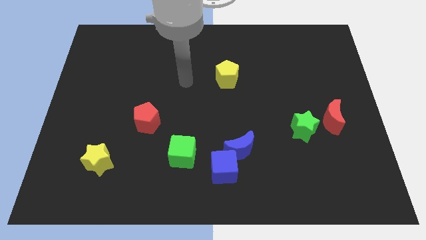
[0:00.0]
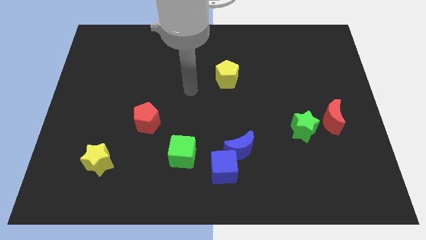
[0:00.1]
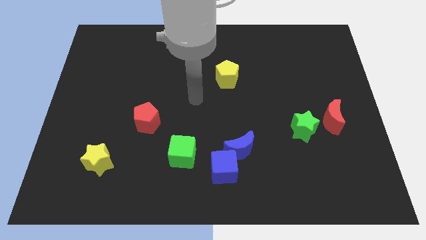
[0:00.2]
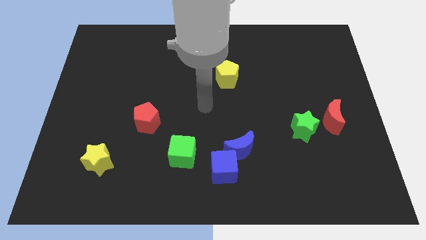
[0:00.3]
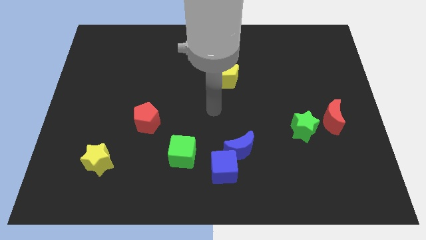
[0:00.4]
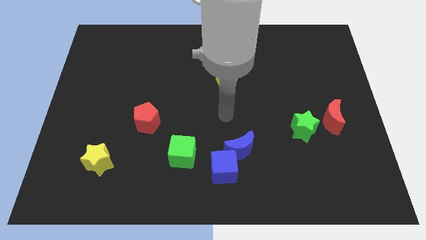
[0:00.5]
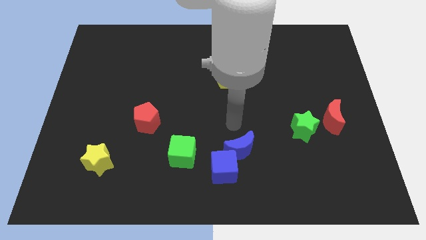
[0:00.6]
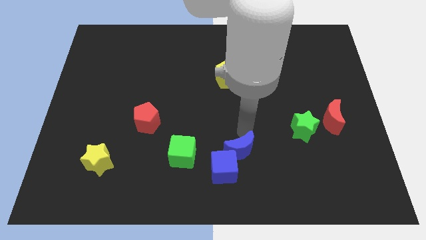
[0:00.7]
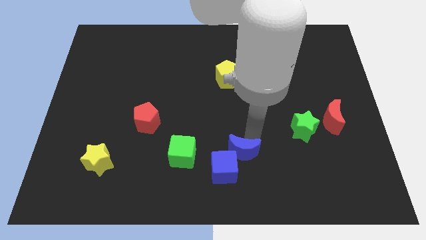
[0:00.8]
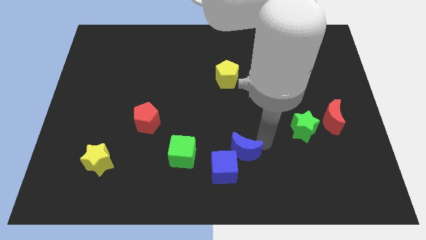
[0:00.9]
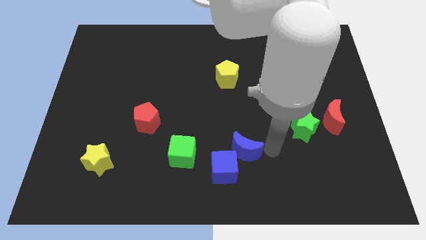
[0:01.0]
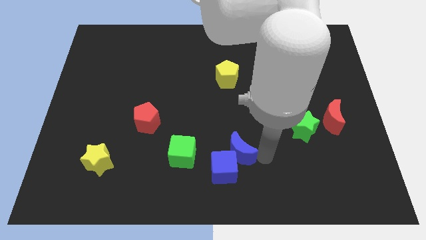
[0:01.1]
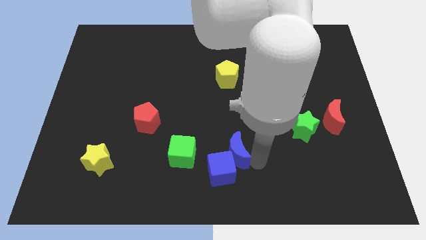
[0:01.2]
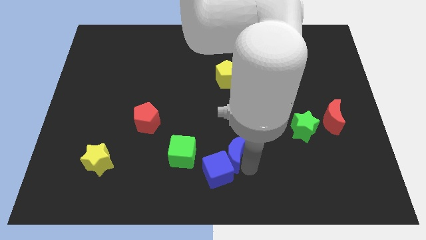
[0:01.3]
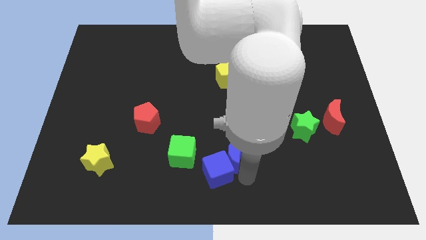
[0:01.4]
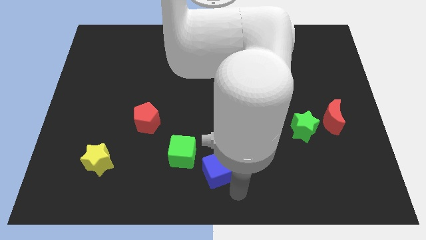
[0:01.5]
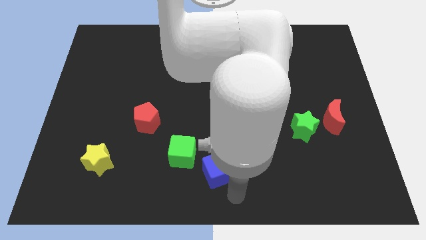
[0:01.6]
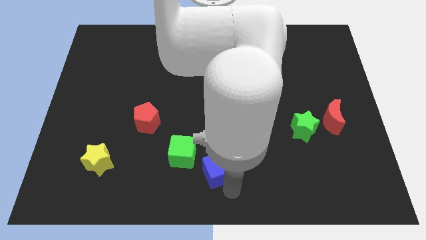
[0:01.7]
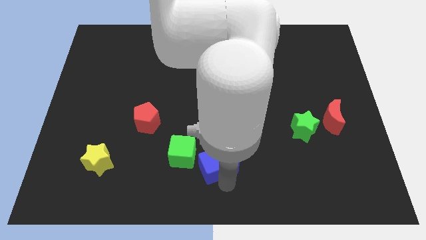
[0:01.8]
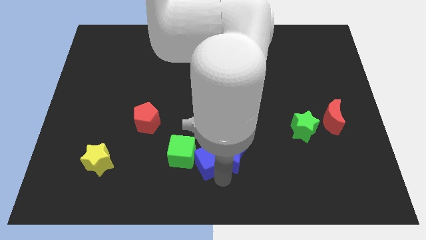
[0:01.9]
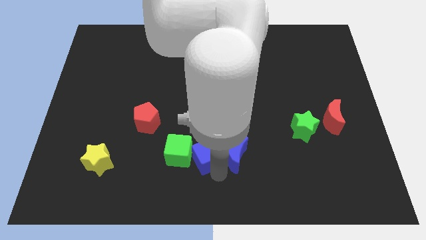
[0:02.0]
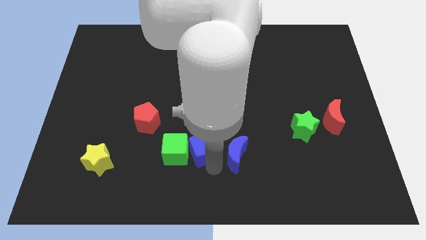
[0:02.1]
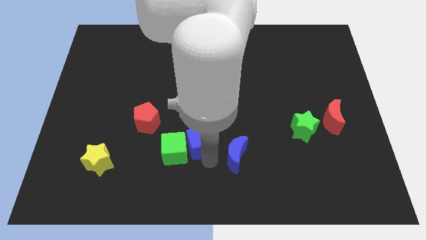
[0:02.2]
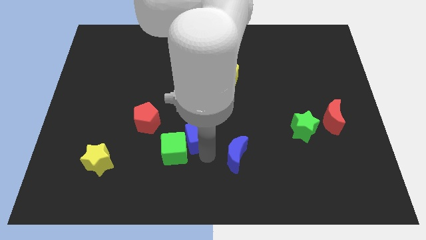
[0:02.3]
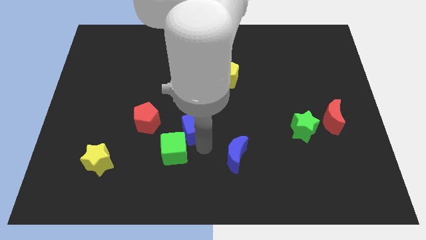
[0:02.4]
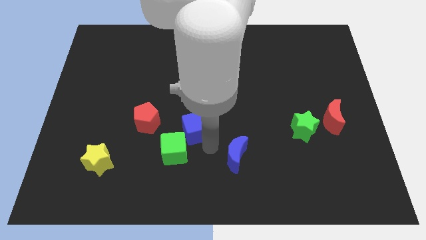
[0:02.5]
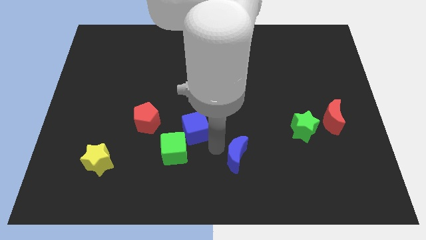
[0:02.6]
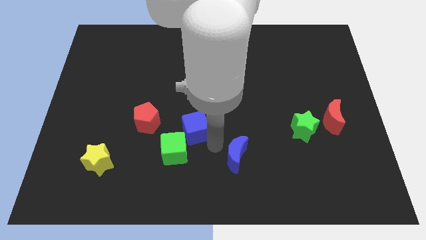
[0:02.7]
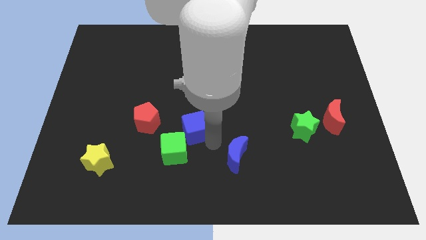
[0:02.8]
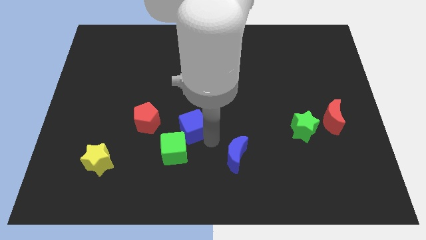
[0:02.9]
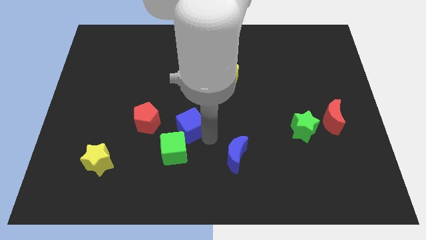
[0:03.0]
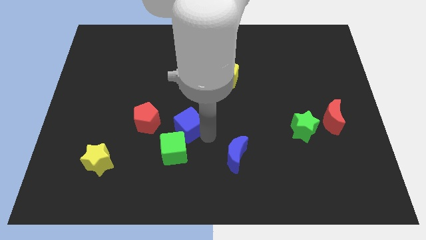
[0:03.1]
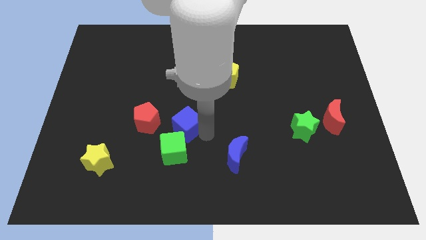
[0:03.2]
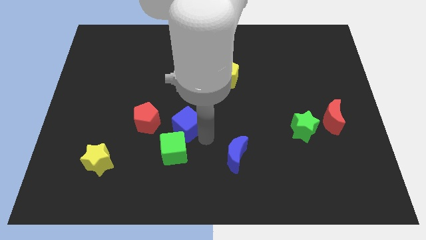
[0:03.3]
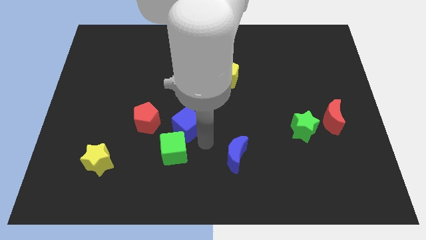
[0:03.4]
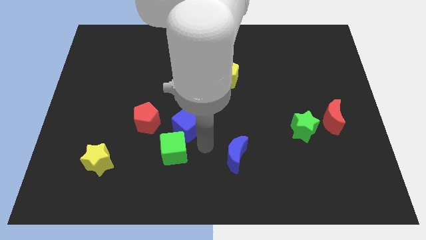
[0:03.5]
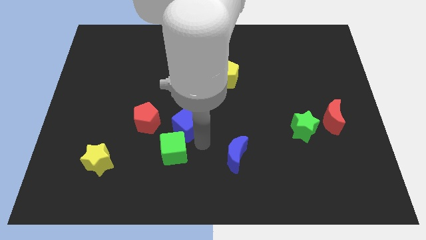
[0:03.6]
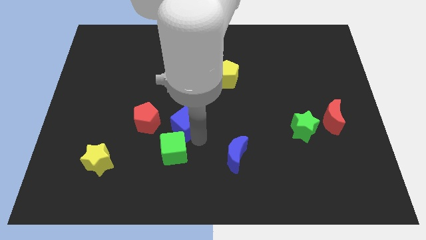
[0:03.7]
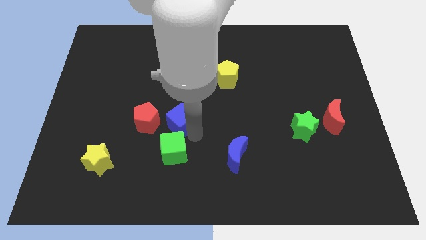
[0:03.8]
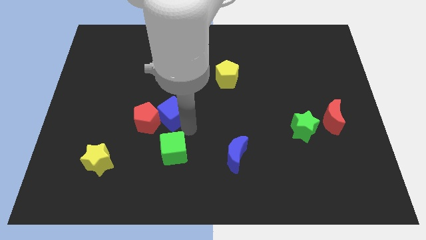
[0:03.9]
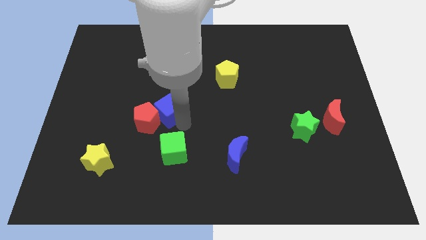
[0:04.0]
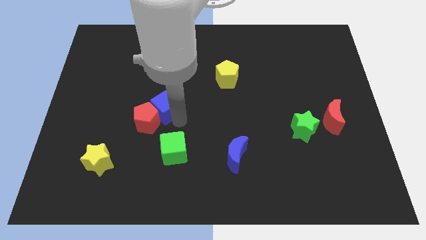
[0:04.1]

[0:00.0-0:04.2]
move the blue cube upwards and to the left diagonally

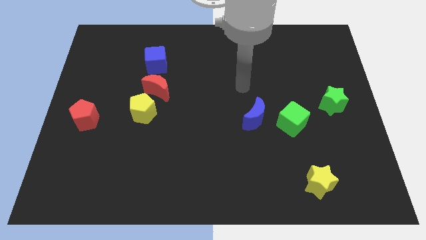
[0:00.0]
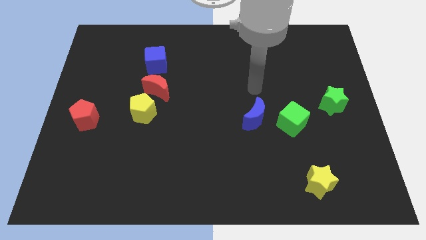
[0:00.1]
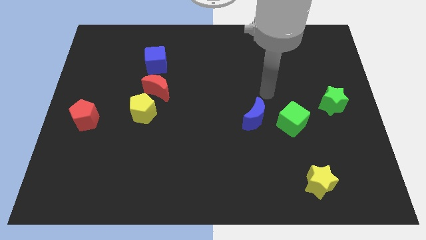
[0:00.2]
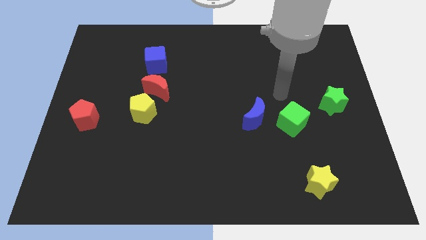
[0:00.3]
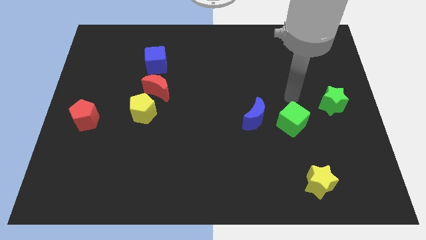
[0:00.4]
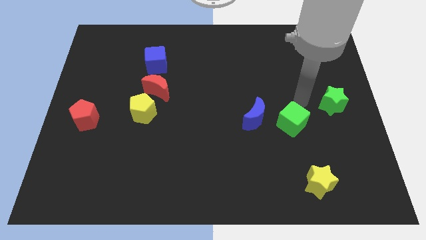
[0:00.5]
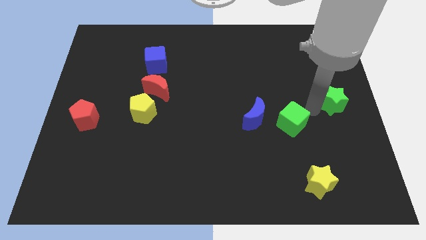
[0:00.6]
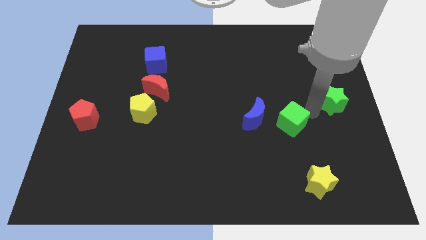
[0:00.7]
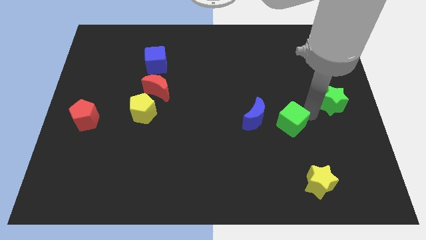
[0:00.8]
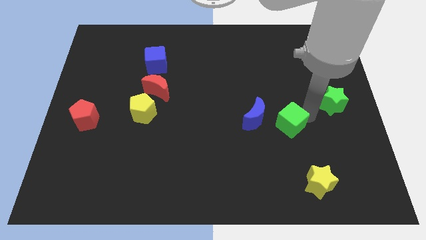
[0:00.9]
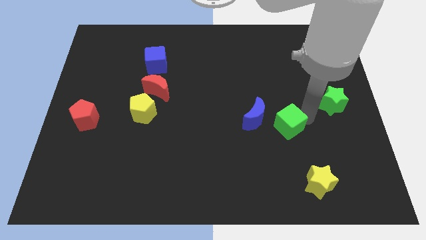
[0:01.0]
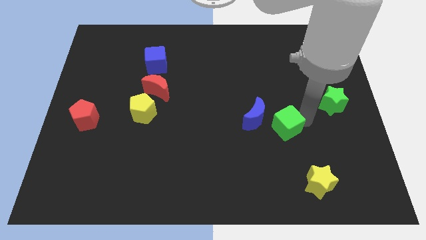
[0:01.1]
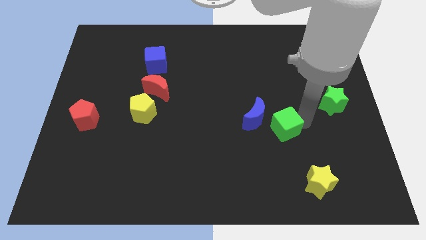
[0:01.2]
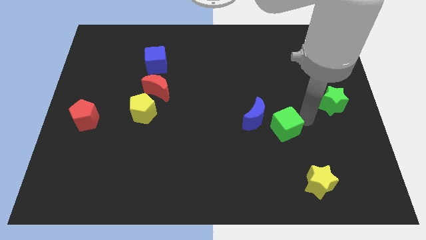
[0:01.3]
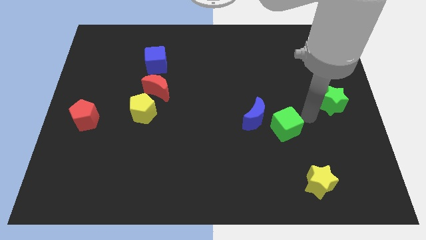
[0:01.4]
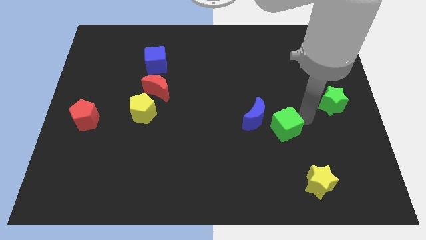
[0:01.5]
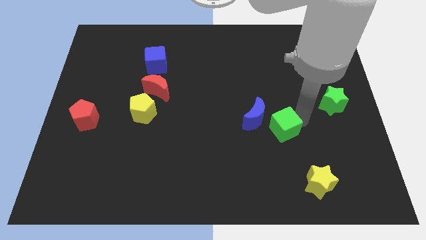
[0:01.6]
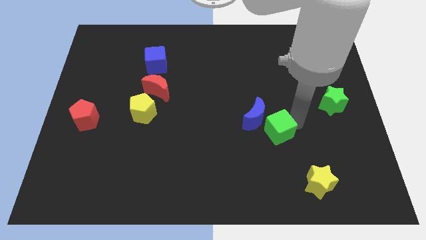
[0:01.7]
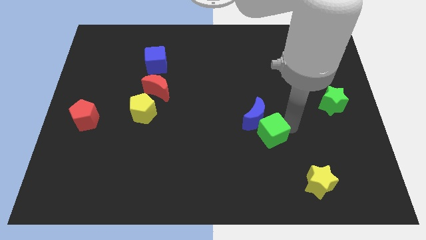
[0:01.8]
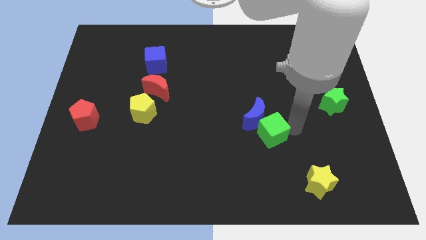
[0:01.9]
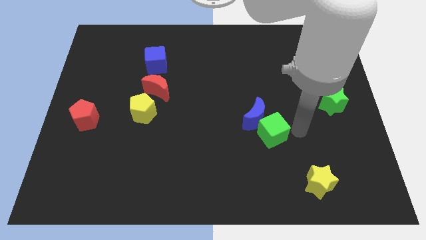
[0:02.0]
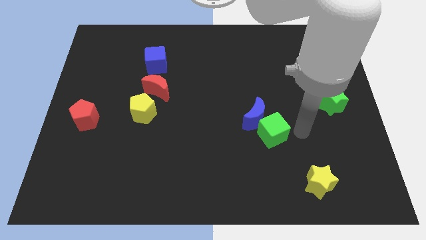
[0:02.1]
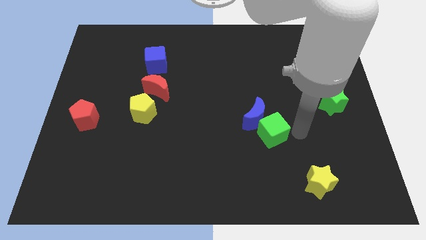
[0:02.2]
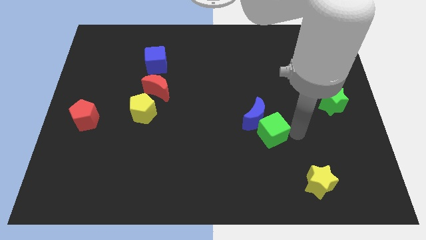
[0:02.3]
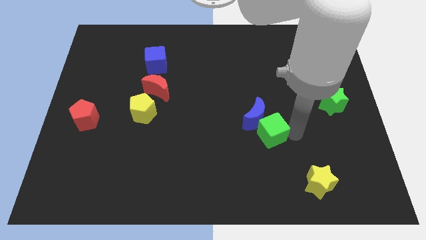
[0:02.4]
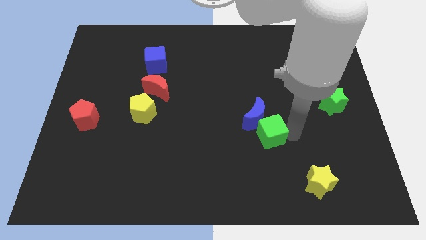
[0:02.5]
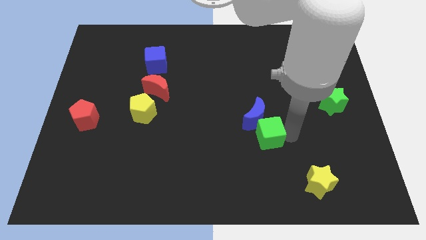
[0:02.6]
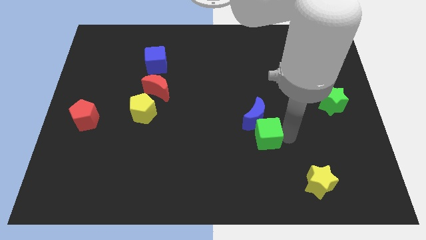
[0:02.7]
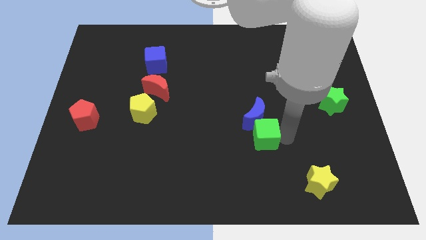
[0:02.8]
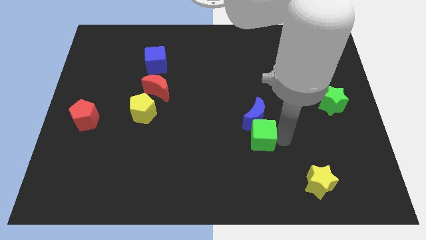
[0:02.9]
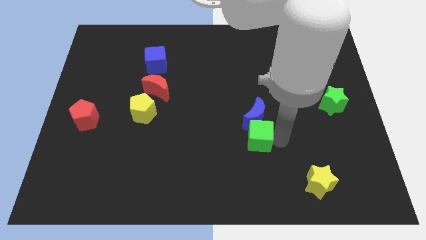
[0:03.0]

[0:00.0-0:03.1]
push the green cube a little bit left

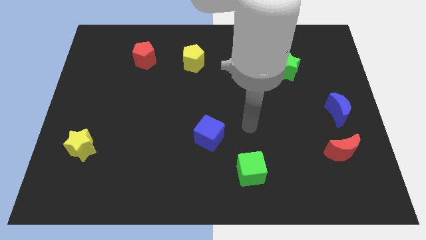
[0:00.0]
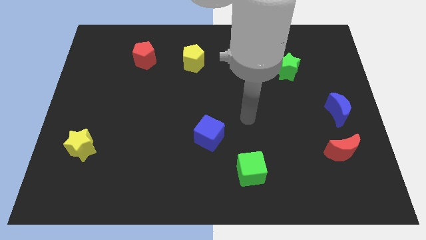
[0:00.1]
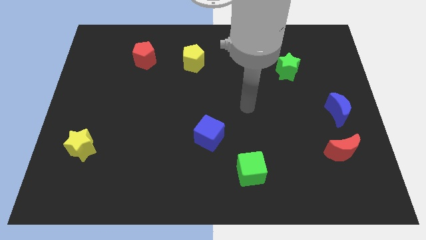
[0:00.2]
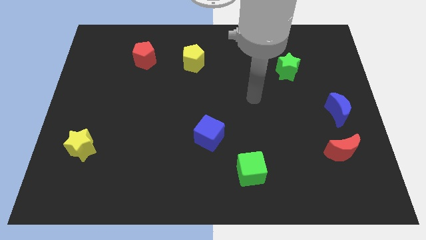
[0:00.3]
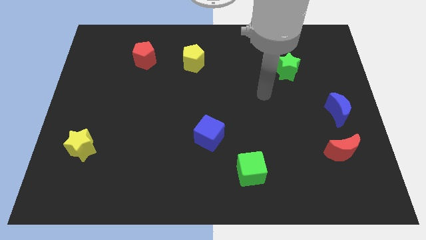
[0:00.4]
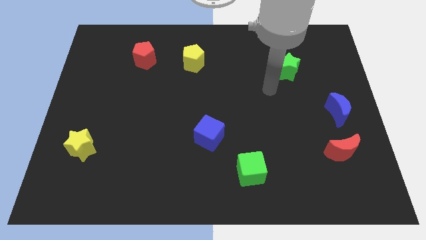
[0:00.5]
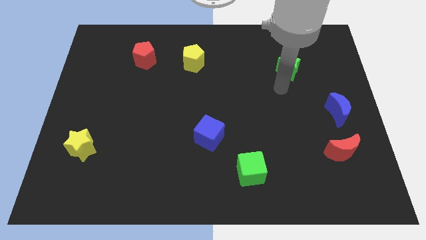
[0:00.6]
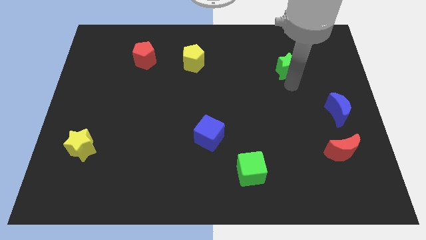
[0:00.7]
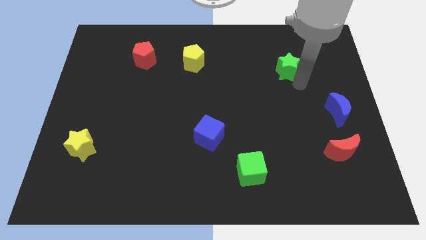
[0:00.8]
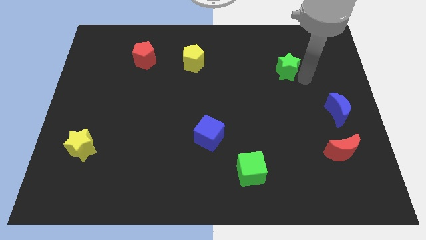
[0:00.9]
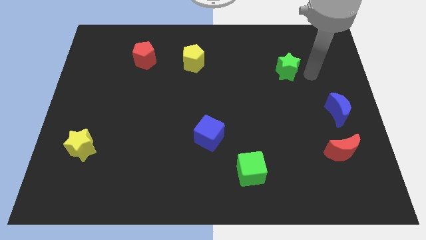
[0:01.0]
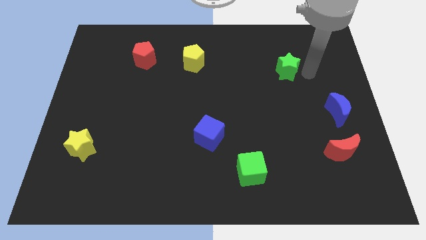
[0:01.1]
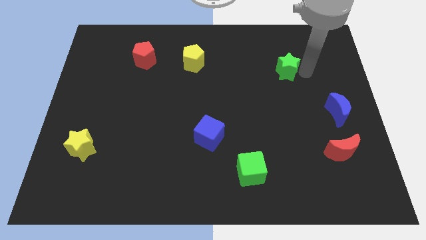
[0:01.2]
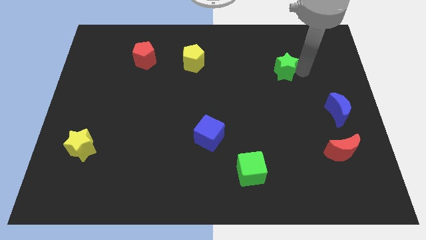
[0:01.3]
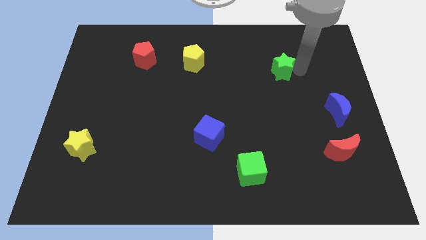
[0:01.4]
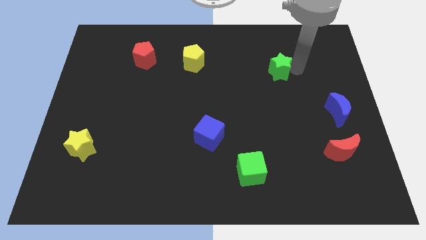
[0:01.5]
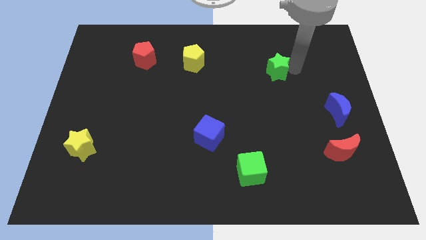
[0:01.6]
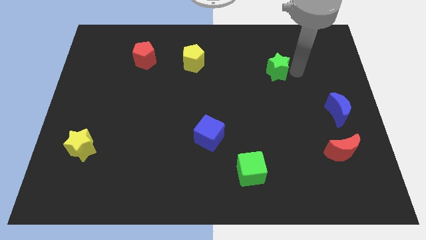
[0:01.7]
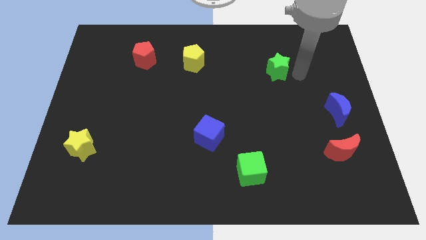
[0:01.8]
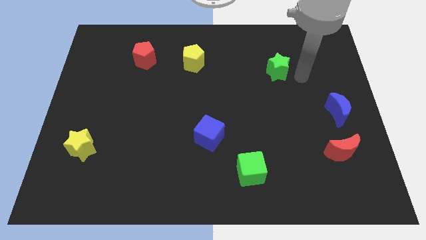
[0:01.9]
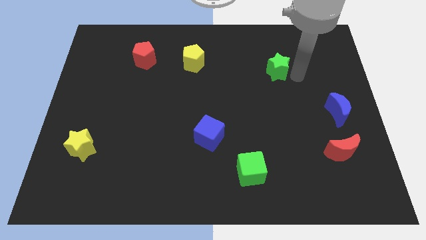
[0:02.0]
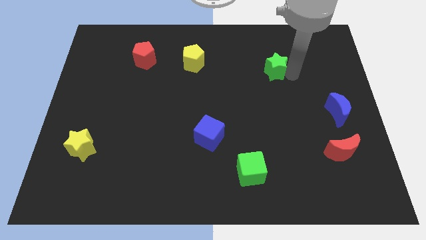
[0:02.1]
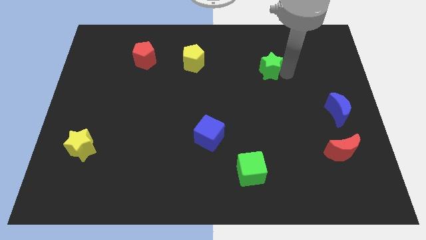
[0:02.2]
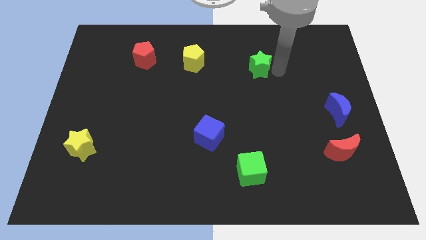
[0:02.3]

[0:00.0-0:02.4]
push the green star left a bit
